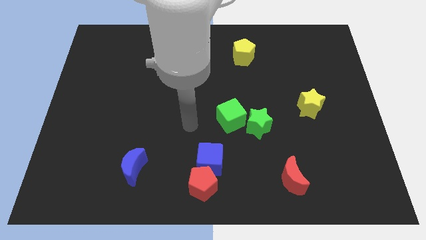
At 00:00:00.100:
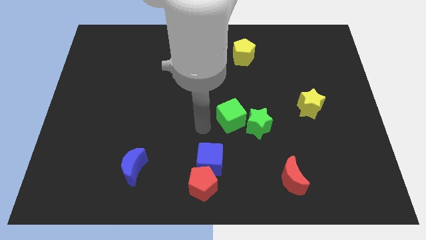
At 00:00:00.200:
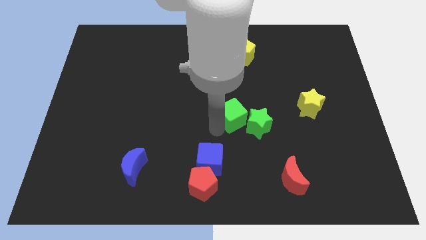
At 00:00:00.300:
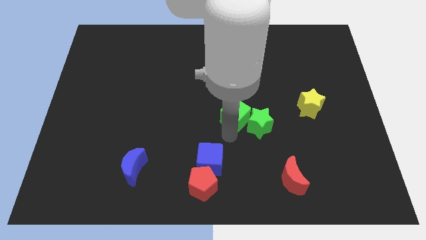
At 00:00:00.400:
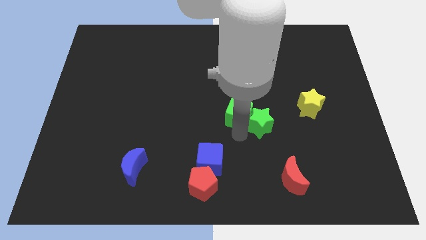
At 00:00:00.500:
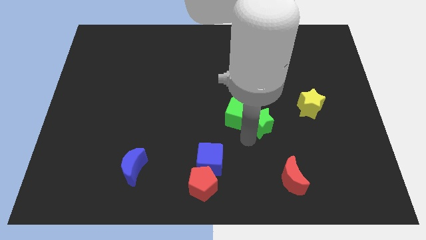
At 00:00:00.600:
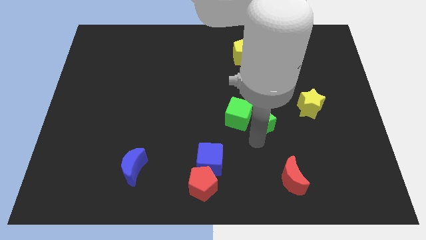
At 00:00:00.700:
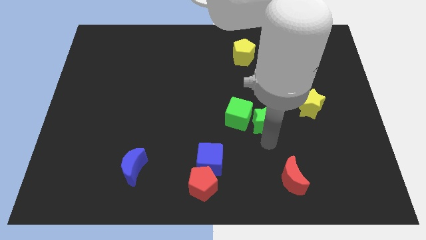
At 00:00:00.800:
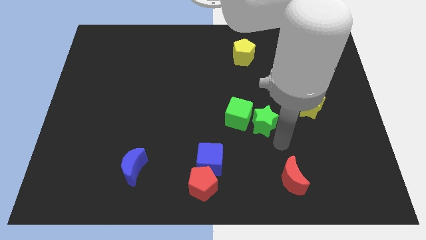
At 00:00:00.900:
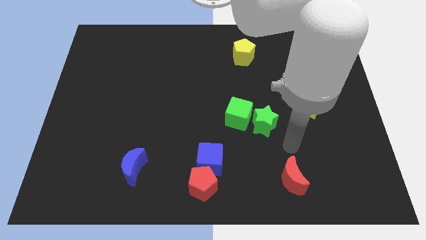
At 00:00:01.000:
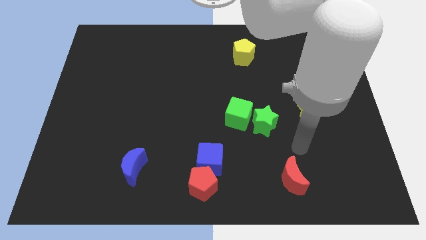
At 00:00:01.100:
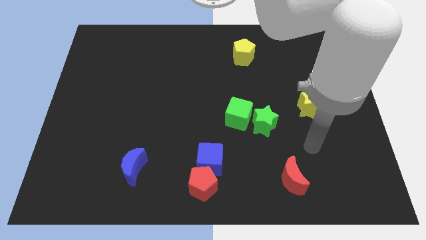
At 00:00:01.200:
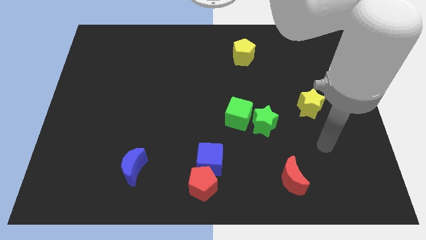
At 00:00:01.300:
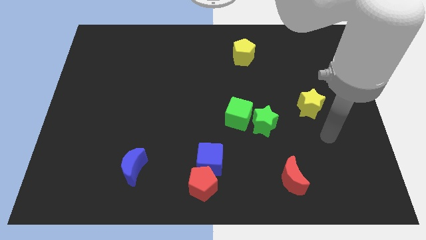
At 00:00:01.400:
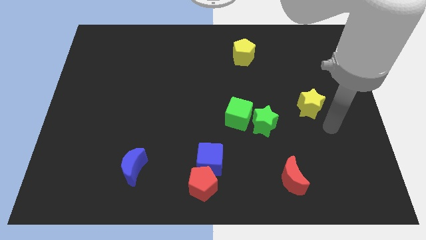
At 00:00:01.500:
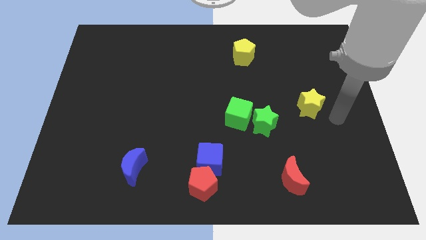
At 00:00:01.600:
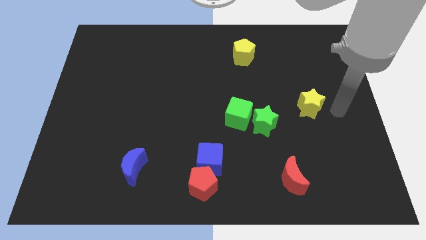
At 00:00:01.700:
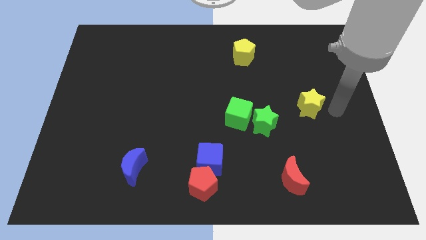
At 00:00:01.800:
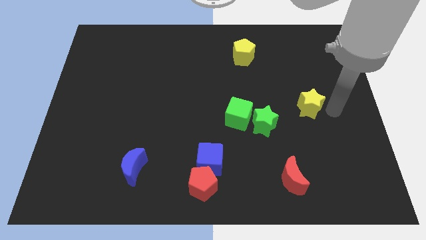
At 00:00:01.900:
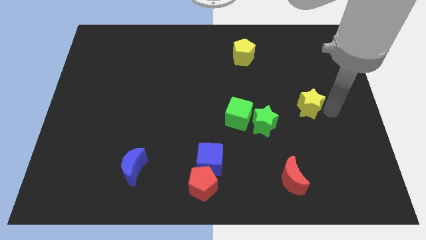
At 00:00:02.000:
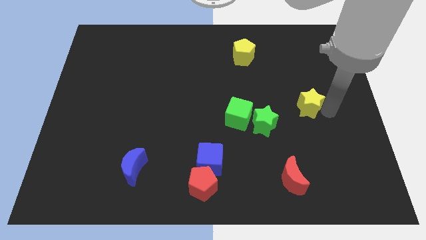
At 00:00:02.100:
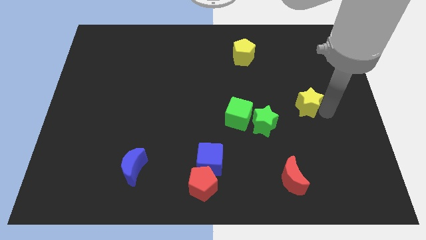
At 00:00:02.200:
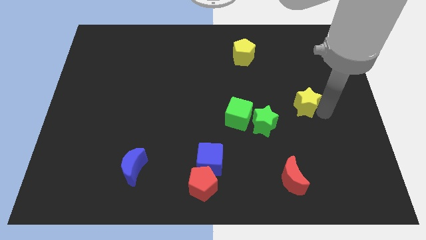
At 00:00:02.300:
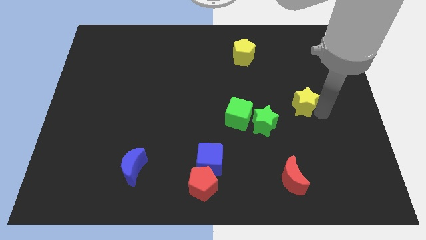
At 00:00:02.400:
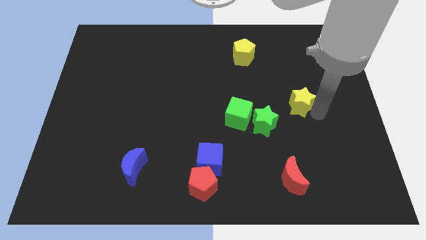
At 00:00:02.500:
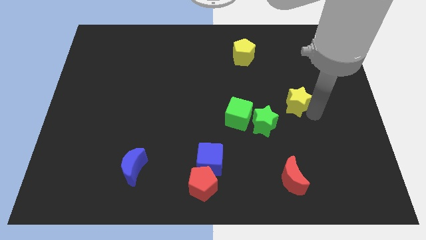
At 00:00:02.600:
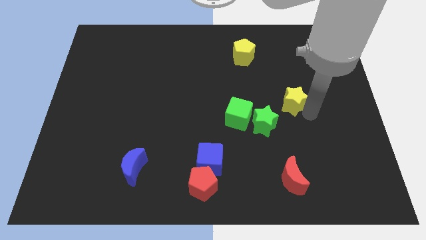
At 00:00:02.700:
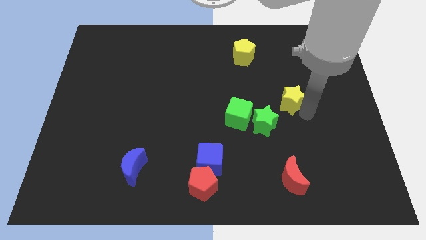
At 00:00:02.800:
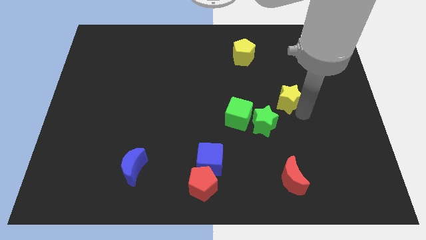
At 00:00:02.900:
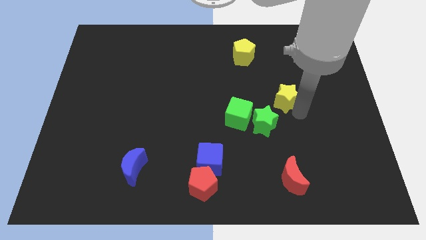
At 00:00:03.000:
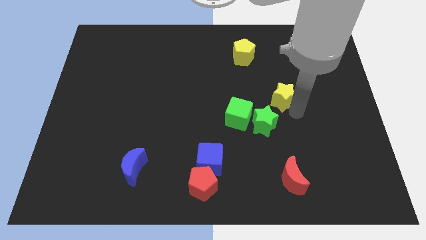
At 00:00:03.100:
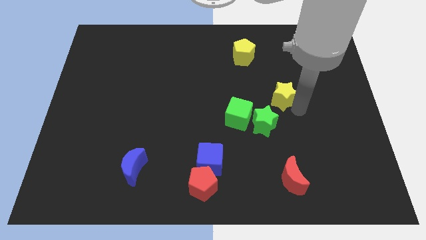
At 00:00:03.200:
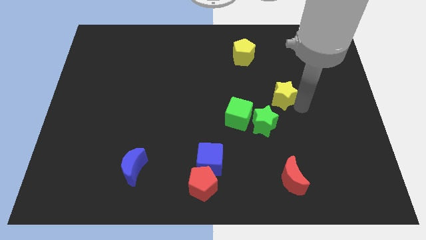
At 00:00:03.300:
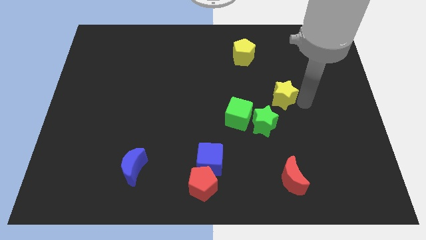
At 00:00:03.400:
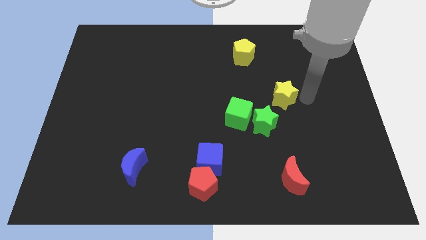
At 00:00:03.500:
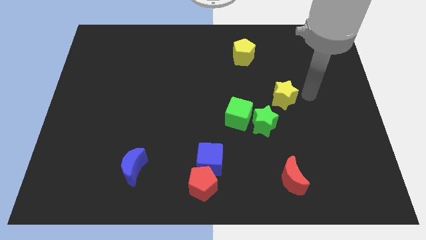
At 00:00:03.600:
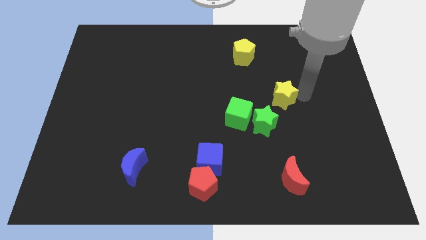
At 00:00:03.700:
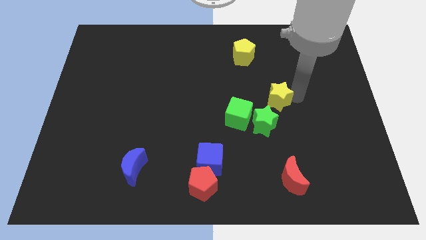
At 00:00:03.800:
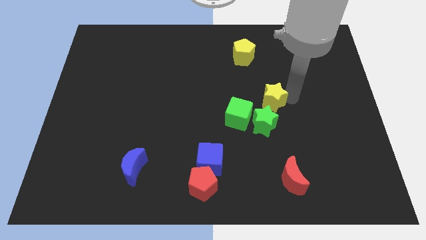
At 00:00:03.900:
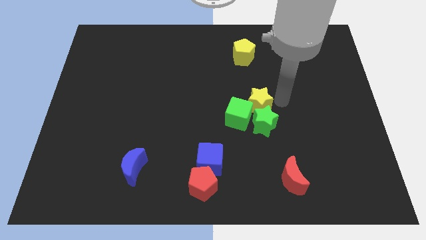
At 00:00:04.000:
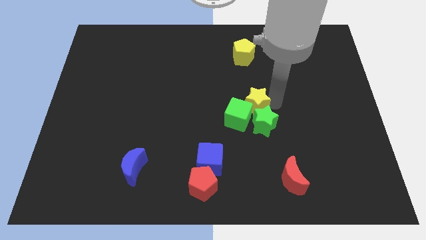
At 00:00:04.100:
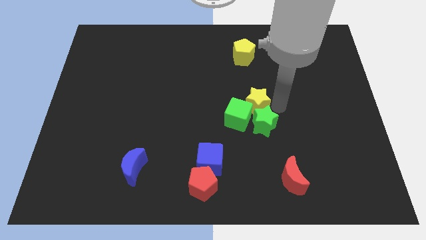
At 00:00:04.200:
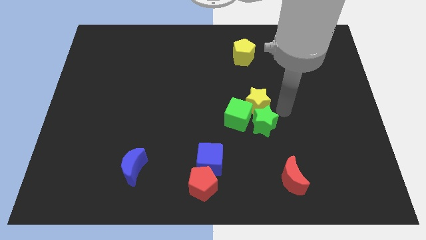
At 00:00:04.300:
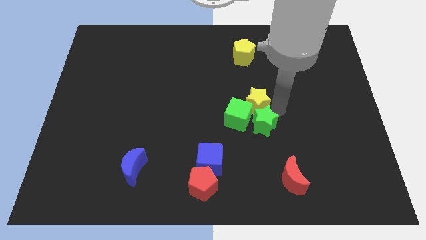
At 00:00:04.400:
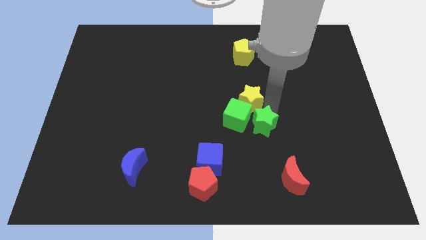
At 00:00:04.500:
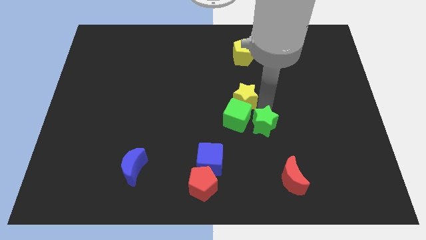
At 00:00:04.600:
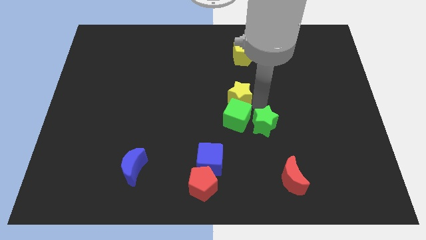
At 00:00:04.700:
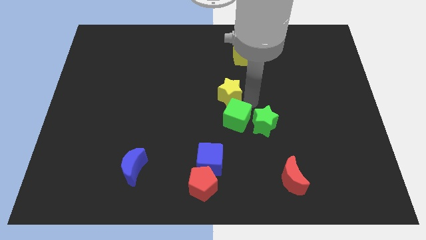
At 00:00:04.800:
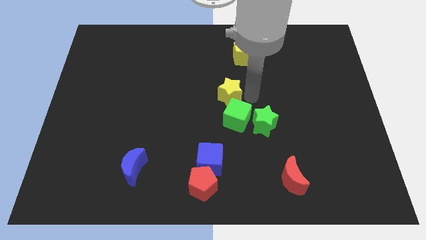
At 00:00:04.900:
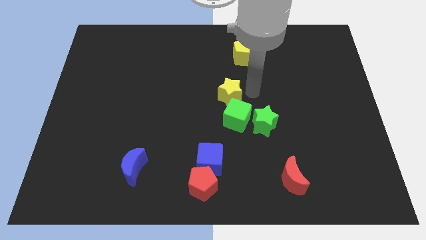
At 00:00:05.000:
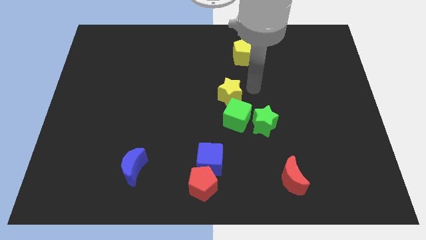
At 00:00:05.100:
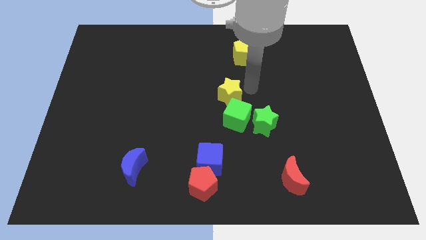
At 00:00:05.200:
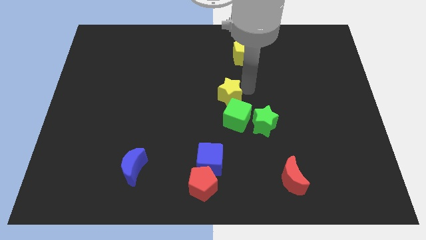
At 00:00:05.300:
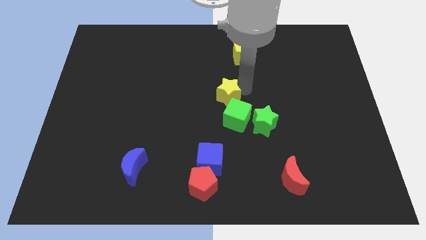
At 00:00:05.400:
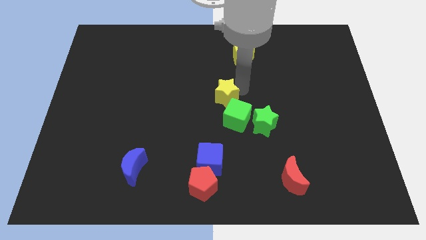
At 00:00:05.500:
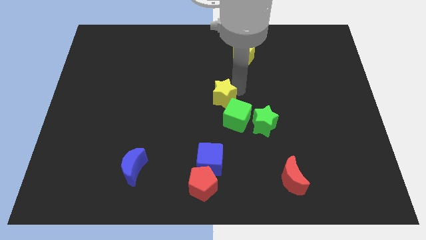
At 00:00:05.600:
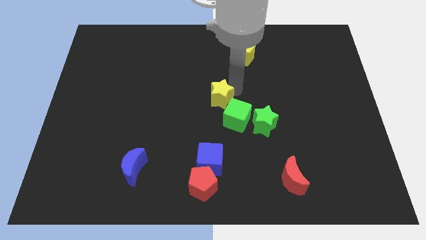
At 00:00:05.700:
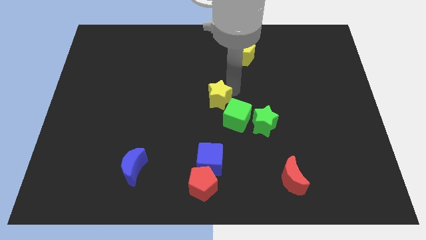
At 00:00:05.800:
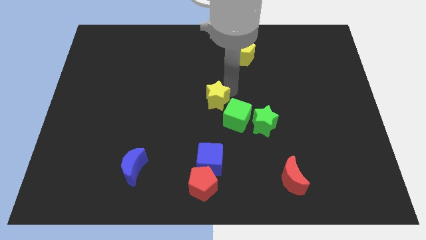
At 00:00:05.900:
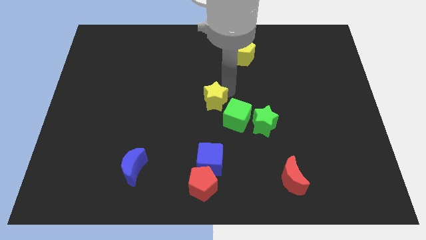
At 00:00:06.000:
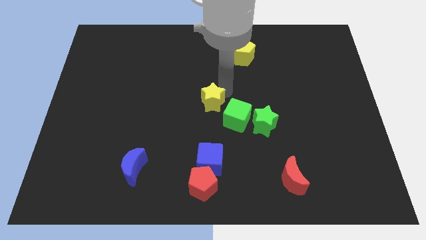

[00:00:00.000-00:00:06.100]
slide the yellow star left of the green cube
